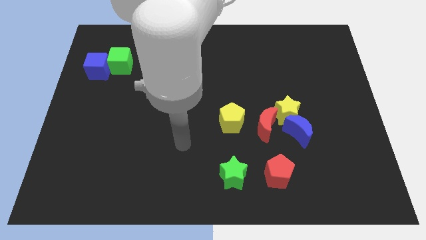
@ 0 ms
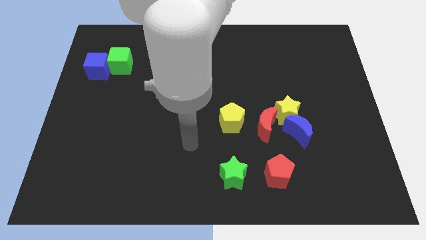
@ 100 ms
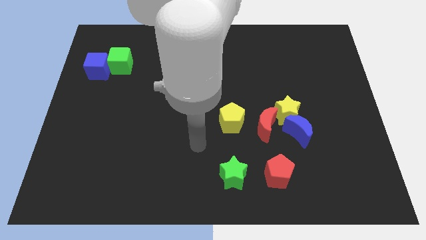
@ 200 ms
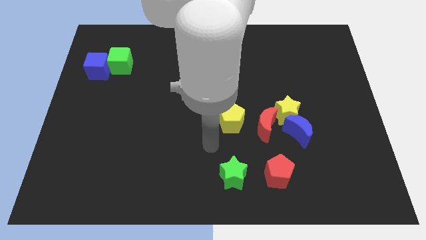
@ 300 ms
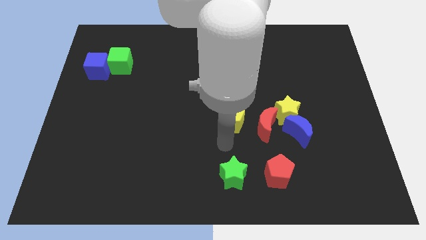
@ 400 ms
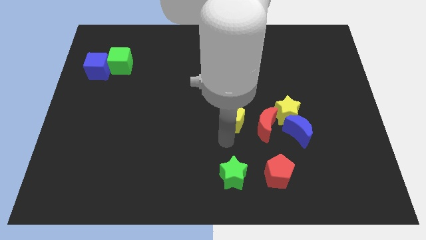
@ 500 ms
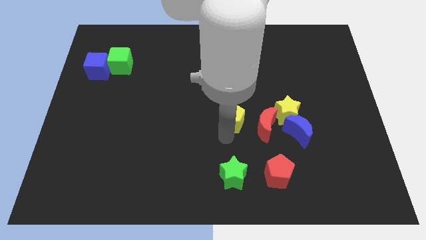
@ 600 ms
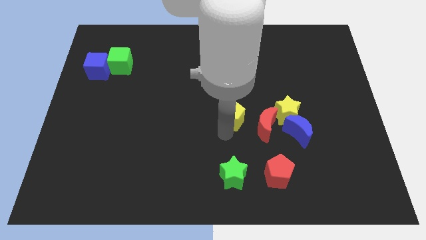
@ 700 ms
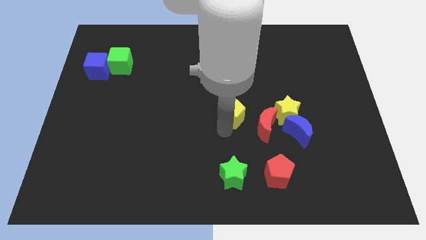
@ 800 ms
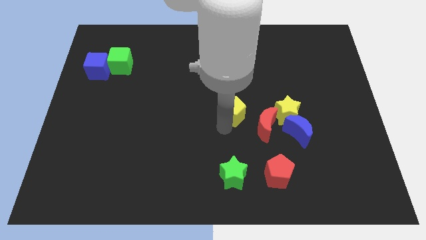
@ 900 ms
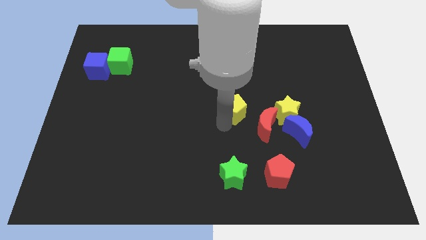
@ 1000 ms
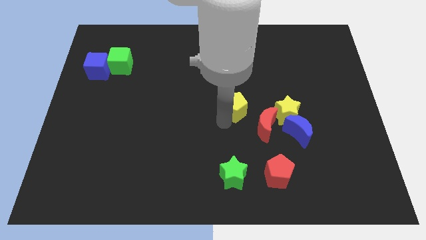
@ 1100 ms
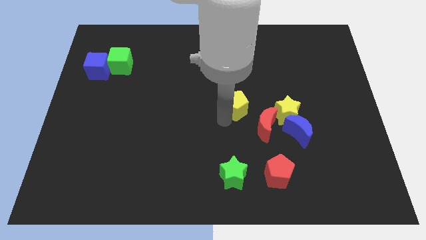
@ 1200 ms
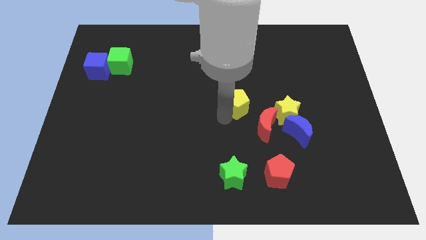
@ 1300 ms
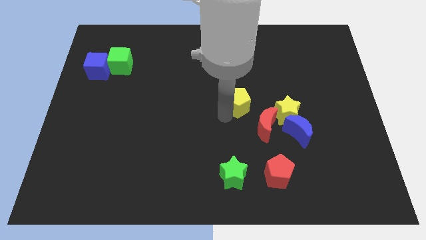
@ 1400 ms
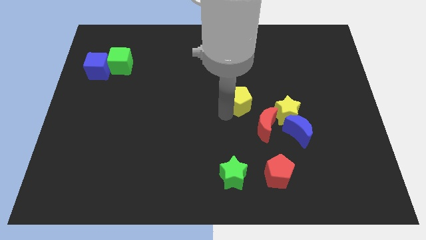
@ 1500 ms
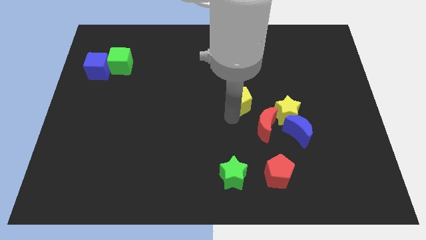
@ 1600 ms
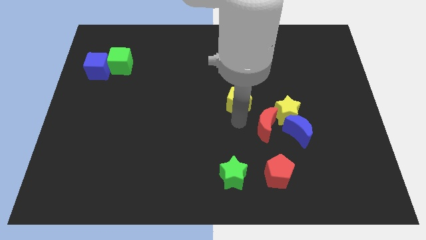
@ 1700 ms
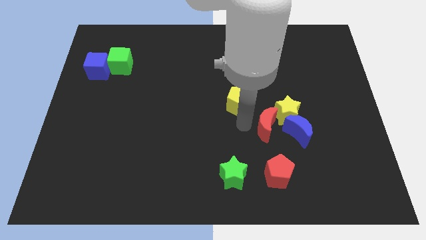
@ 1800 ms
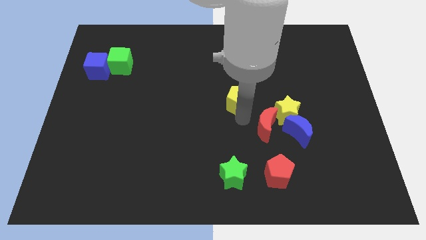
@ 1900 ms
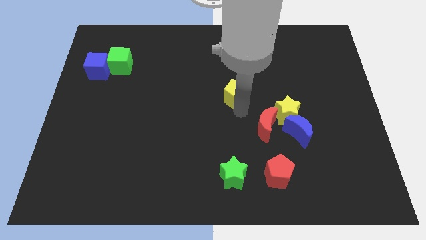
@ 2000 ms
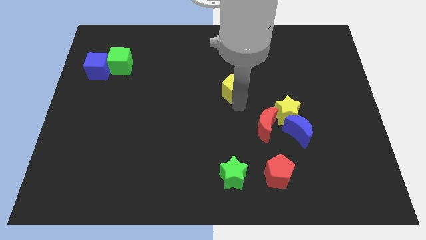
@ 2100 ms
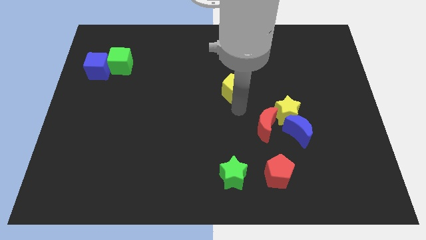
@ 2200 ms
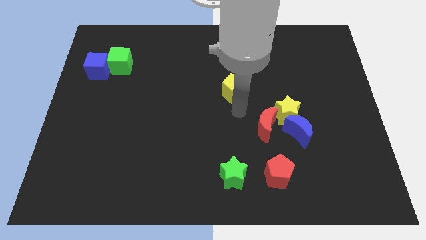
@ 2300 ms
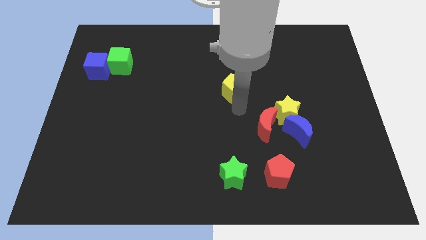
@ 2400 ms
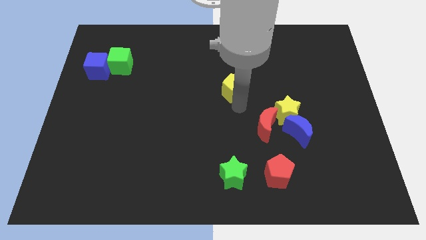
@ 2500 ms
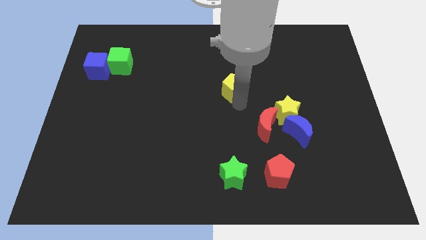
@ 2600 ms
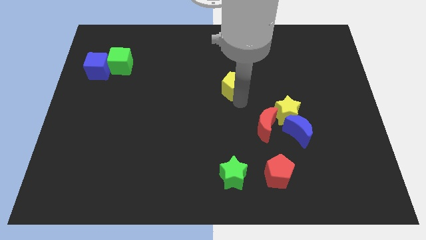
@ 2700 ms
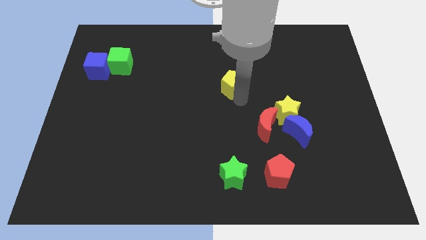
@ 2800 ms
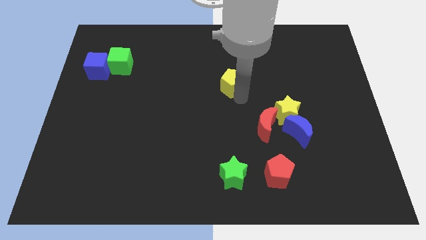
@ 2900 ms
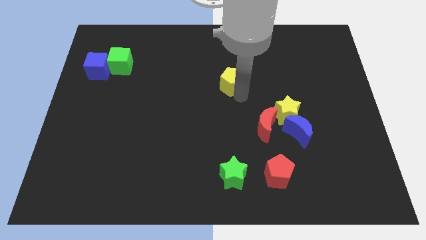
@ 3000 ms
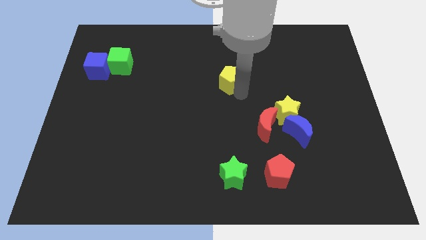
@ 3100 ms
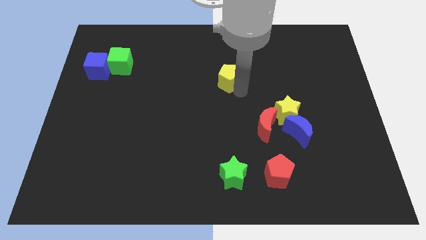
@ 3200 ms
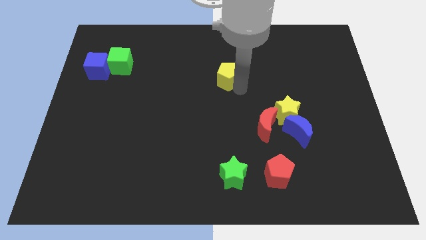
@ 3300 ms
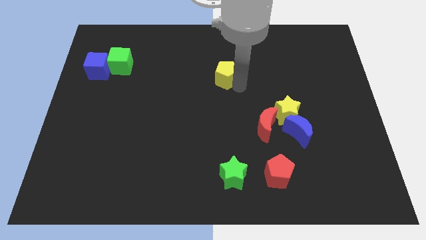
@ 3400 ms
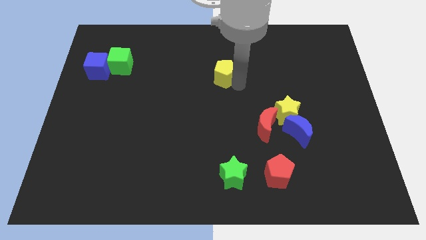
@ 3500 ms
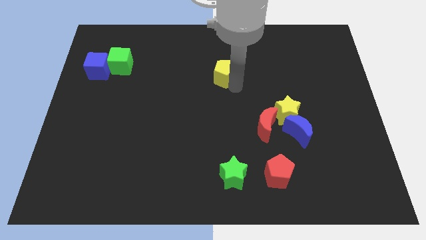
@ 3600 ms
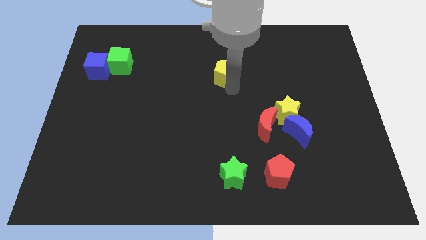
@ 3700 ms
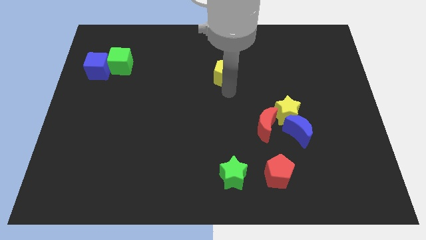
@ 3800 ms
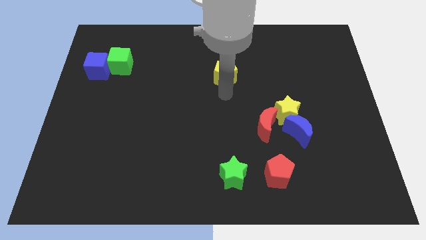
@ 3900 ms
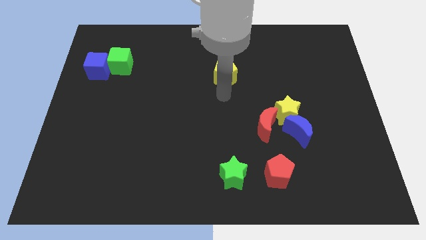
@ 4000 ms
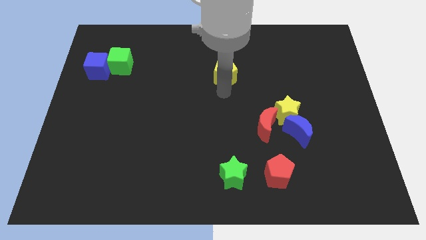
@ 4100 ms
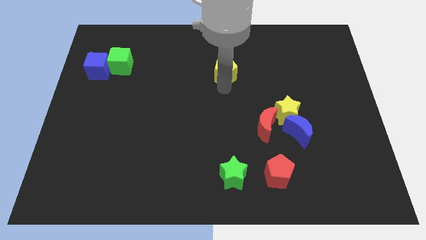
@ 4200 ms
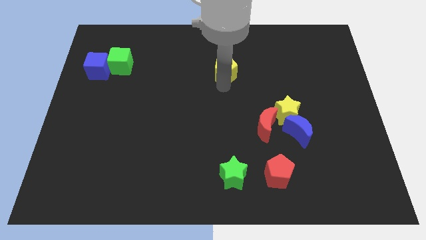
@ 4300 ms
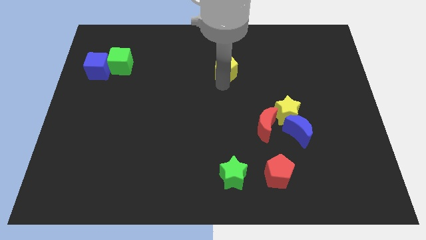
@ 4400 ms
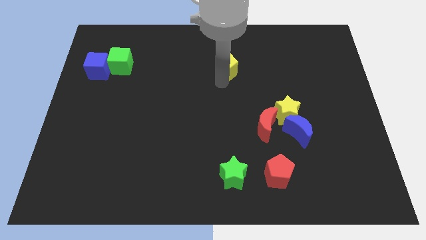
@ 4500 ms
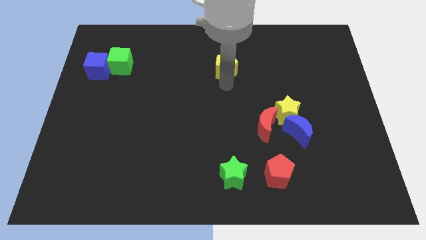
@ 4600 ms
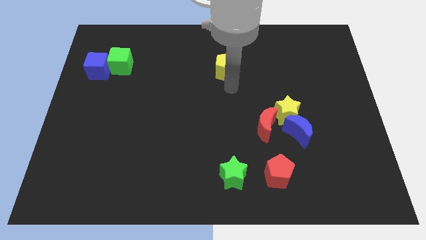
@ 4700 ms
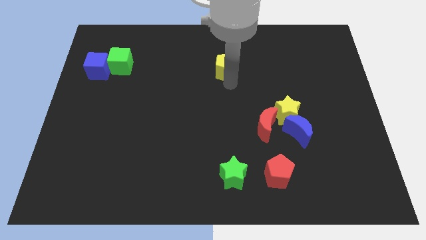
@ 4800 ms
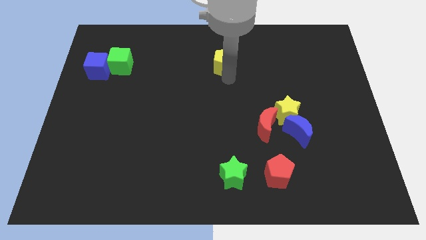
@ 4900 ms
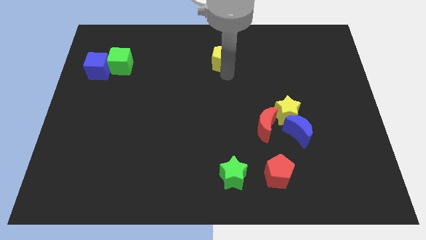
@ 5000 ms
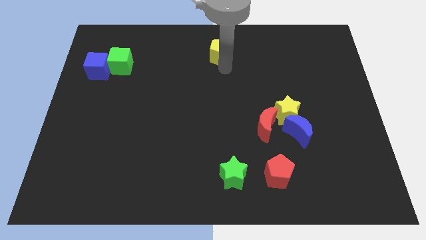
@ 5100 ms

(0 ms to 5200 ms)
push the yellow pentagon to the towards your base

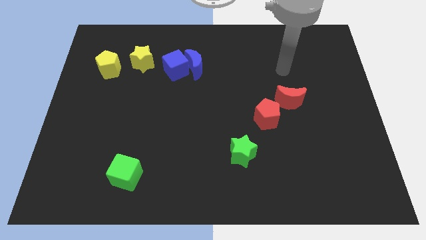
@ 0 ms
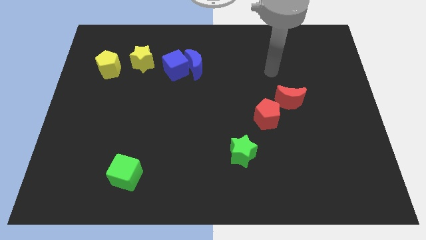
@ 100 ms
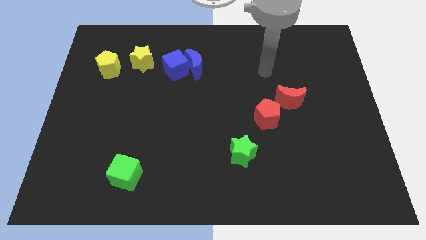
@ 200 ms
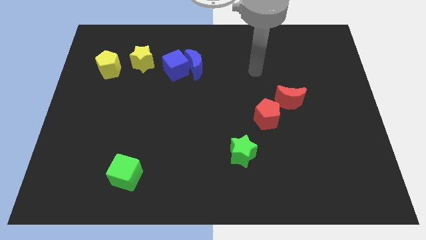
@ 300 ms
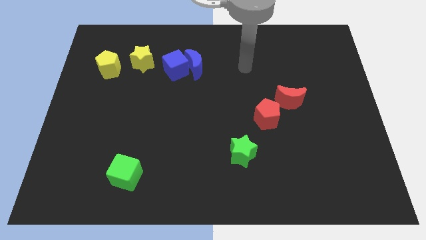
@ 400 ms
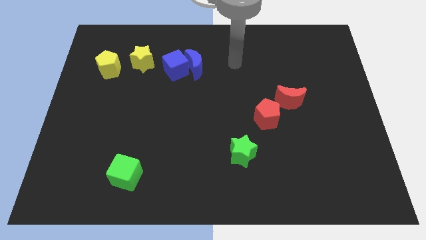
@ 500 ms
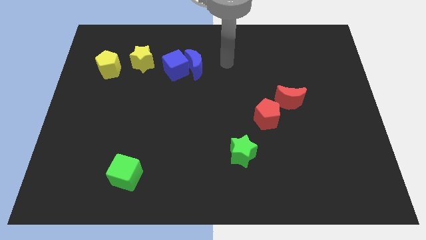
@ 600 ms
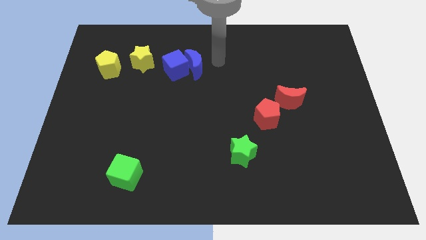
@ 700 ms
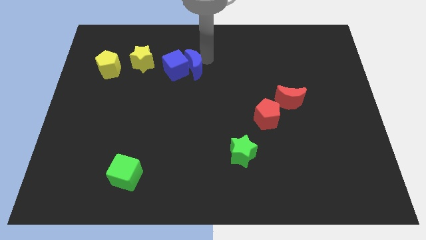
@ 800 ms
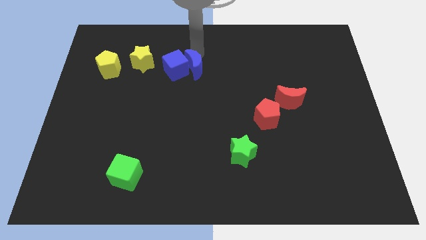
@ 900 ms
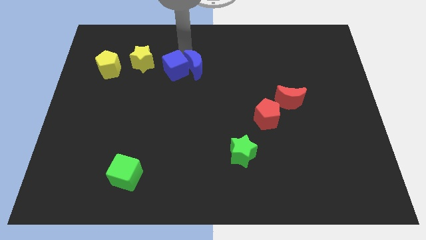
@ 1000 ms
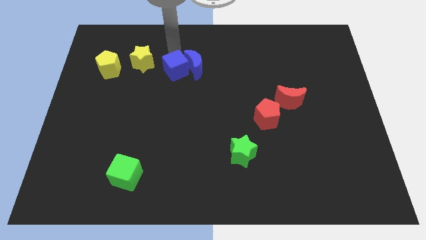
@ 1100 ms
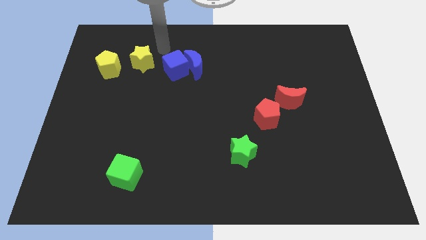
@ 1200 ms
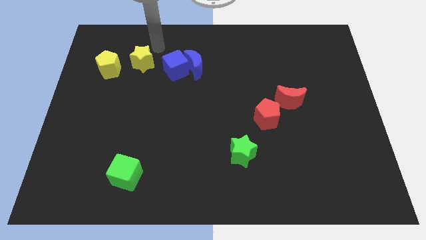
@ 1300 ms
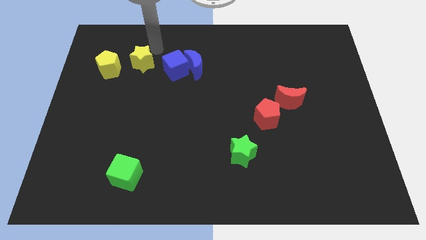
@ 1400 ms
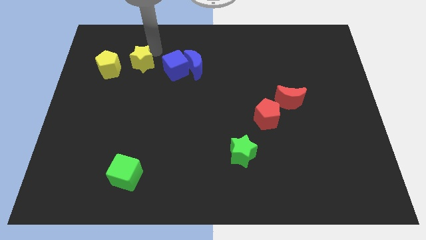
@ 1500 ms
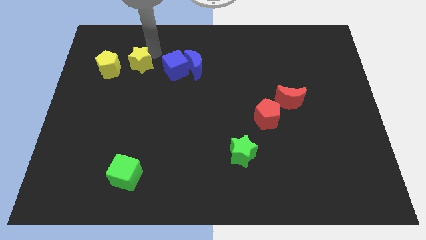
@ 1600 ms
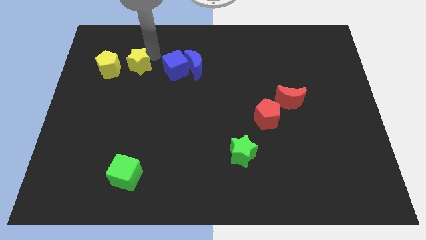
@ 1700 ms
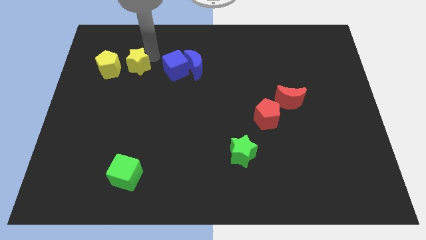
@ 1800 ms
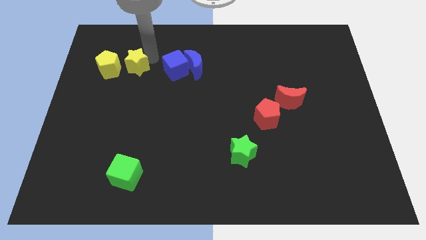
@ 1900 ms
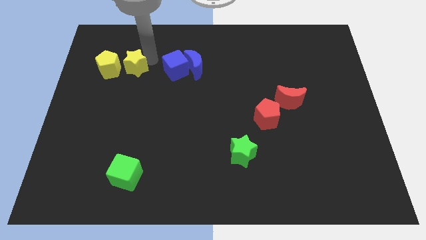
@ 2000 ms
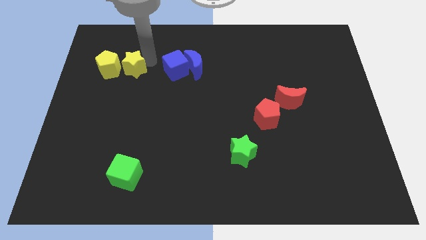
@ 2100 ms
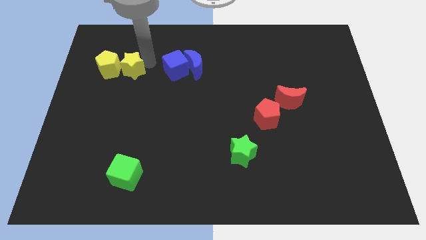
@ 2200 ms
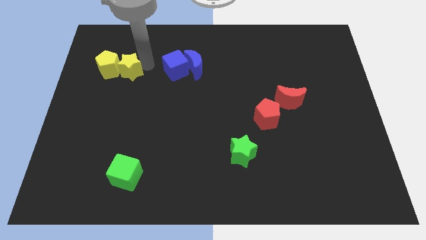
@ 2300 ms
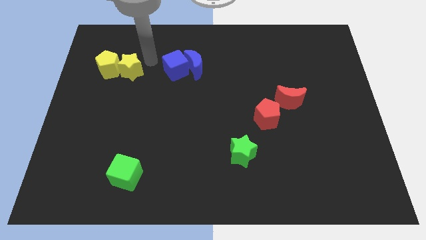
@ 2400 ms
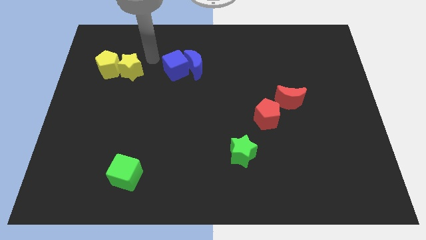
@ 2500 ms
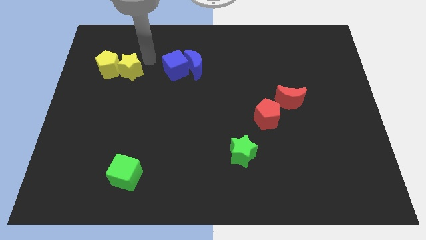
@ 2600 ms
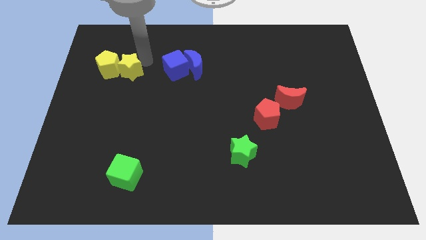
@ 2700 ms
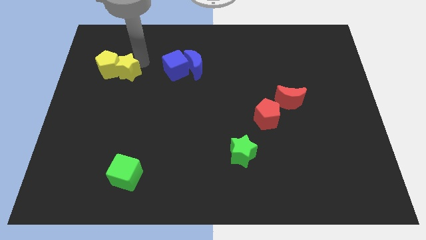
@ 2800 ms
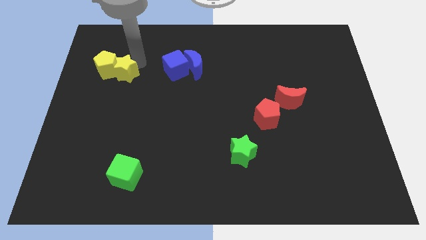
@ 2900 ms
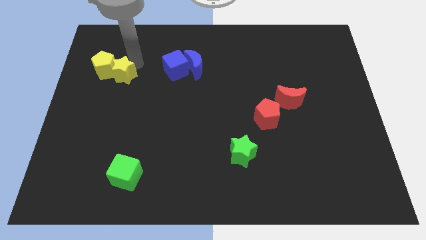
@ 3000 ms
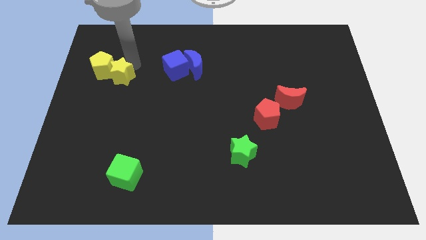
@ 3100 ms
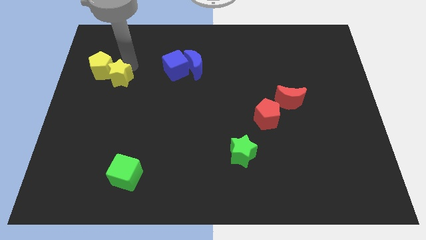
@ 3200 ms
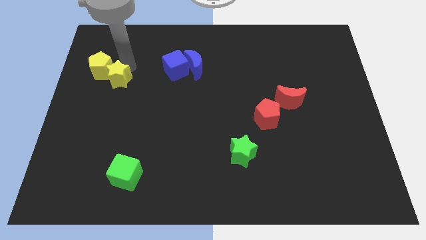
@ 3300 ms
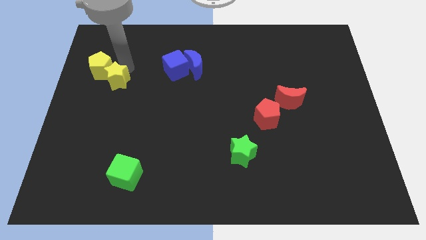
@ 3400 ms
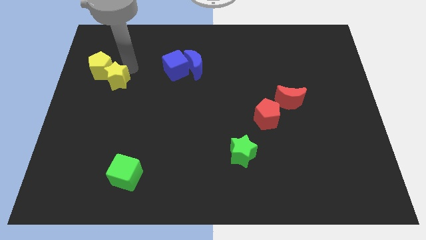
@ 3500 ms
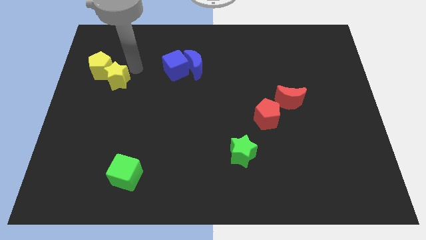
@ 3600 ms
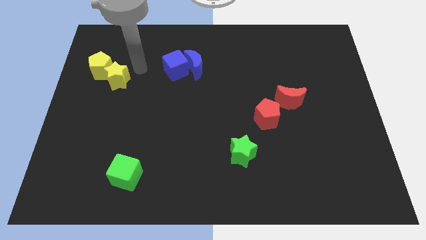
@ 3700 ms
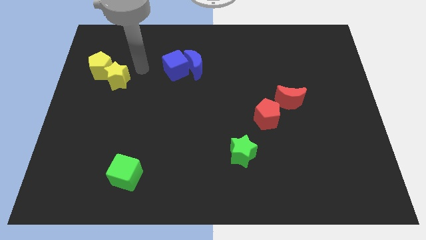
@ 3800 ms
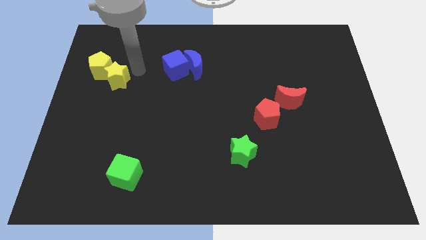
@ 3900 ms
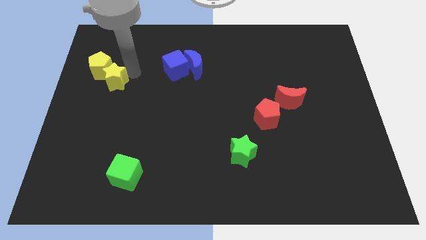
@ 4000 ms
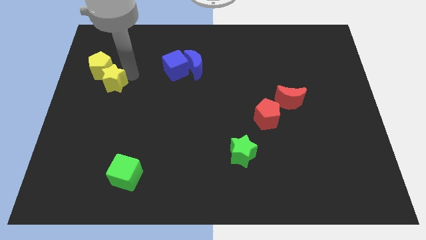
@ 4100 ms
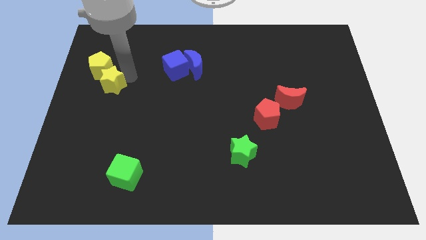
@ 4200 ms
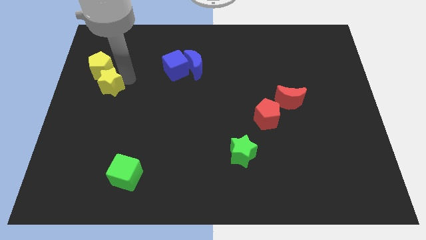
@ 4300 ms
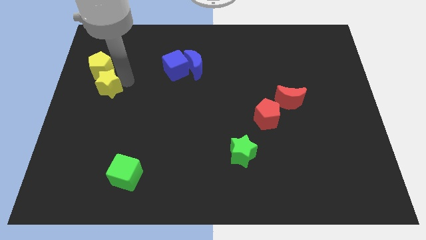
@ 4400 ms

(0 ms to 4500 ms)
slide the yellow star to the left side of the board
